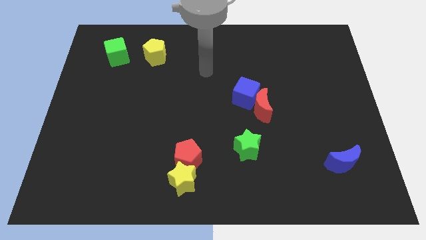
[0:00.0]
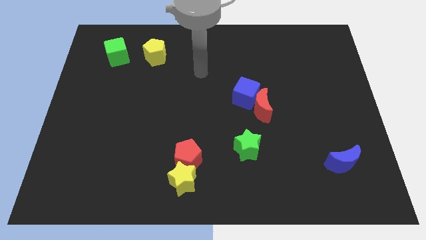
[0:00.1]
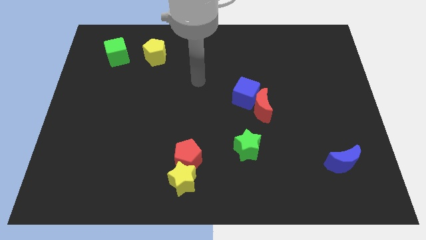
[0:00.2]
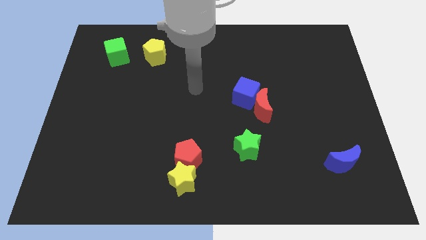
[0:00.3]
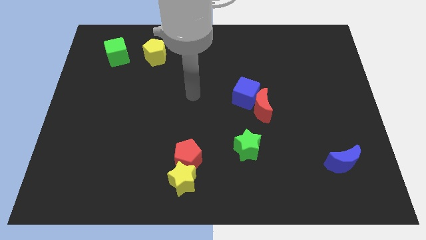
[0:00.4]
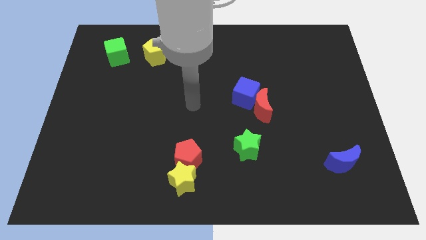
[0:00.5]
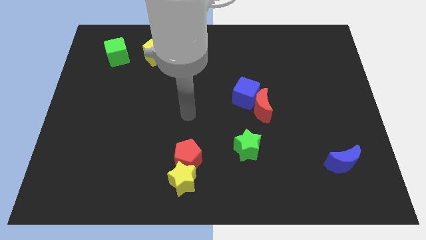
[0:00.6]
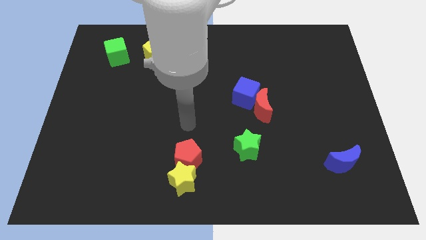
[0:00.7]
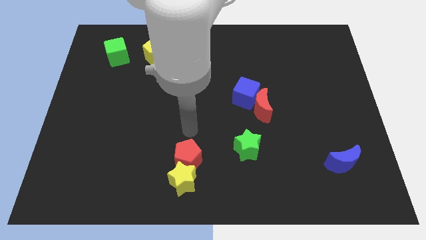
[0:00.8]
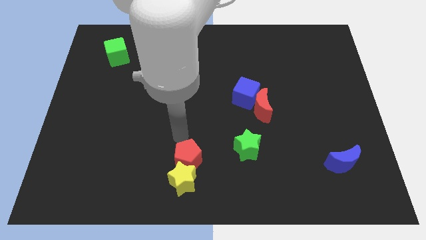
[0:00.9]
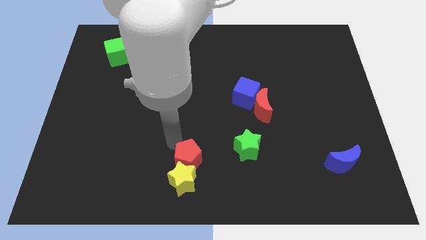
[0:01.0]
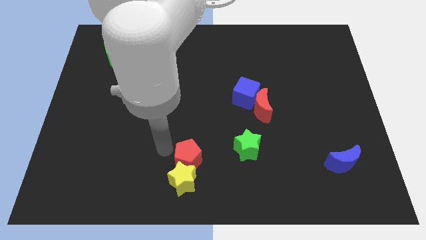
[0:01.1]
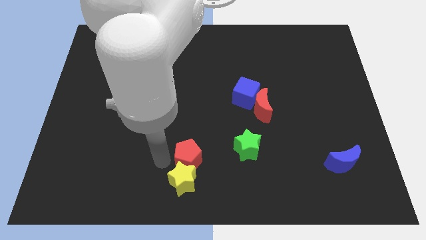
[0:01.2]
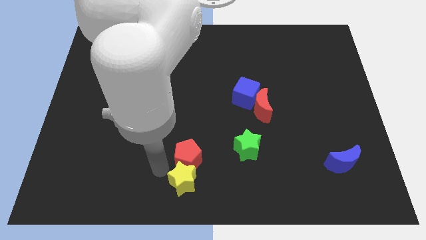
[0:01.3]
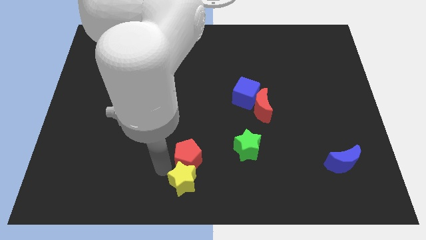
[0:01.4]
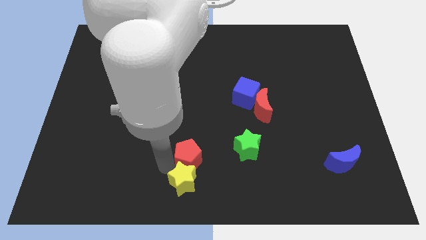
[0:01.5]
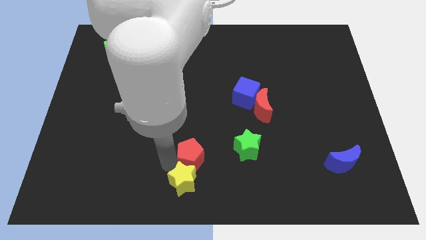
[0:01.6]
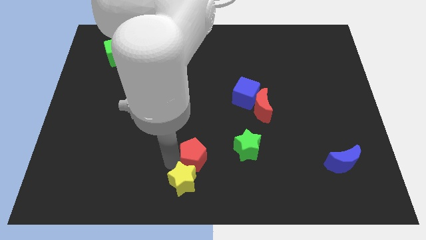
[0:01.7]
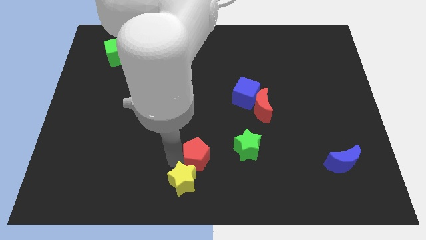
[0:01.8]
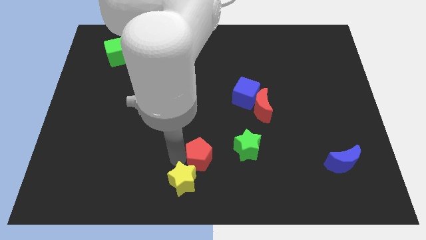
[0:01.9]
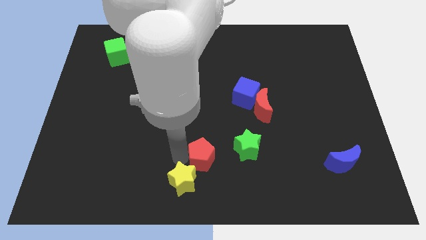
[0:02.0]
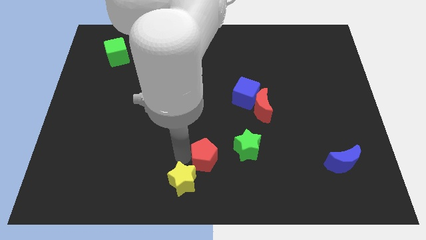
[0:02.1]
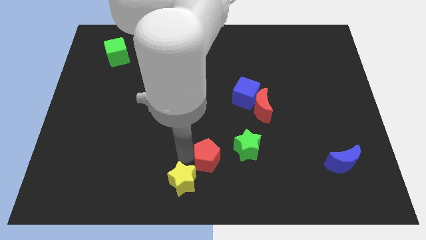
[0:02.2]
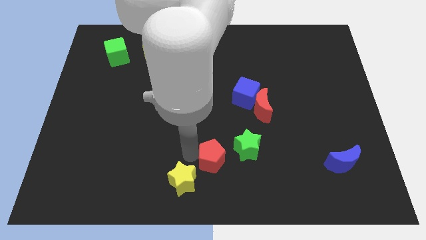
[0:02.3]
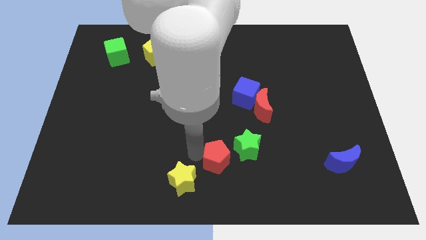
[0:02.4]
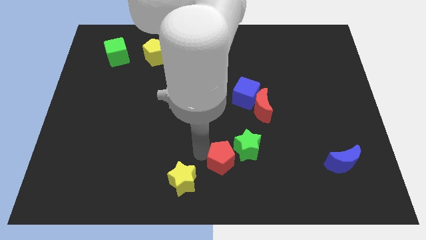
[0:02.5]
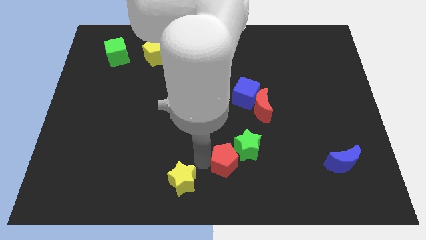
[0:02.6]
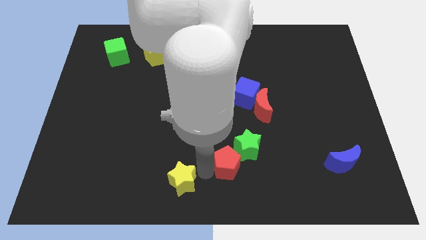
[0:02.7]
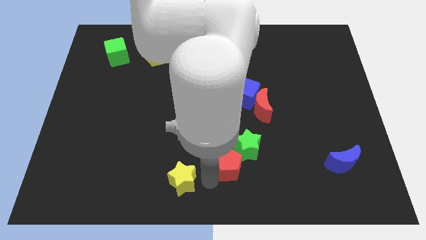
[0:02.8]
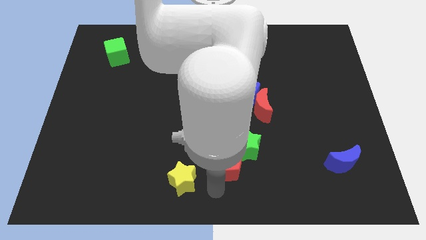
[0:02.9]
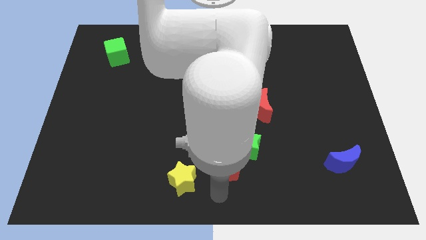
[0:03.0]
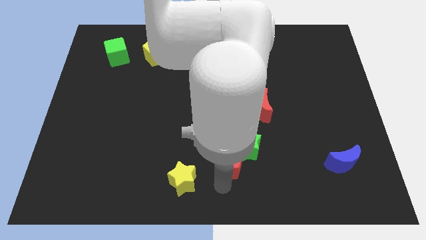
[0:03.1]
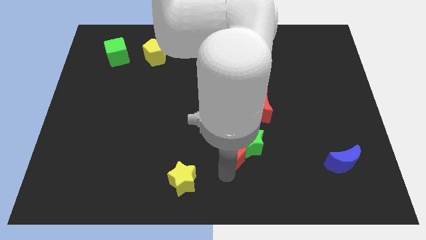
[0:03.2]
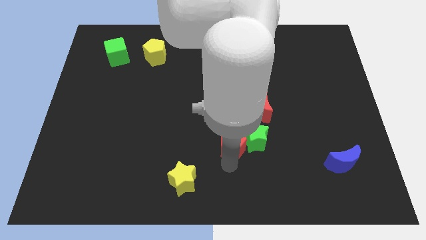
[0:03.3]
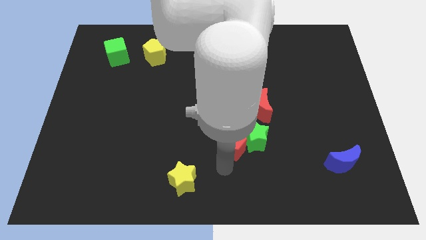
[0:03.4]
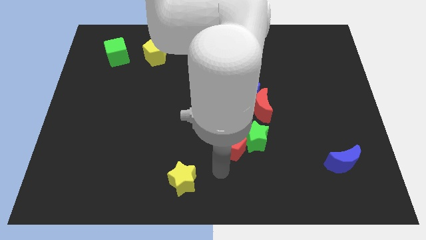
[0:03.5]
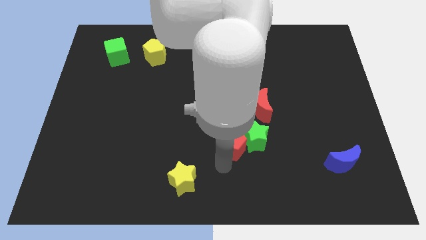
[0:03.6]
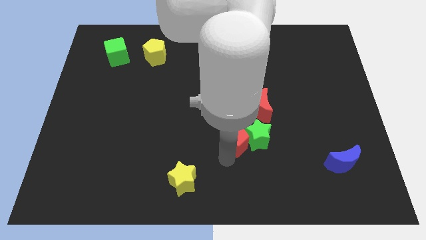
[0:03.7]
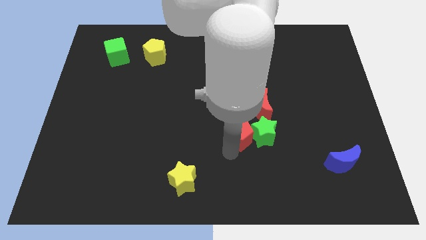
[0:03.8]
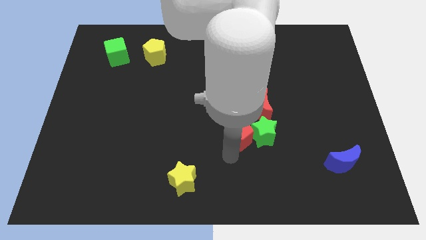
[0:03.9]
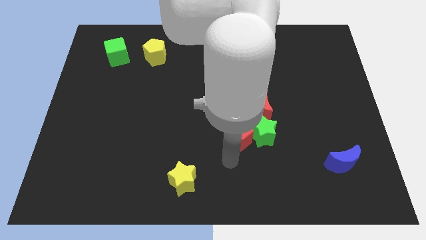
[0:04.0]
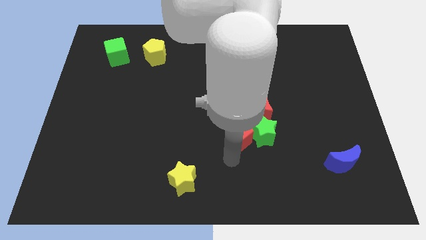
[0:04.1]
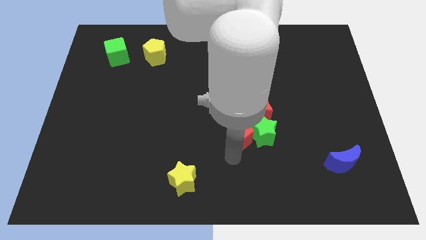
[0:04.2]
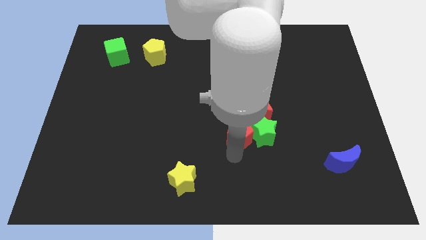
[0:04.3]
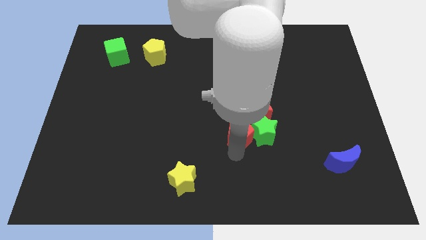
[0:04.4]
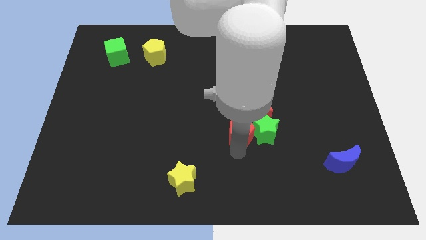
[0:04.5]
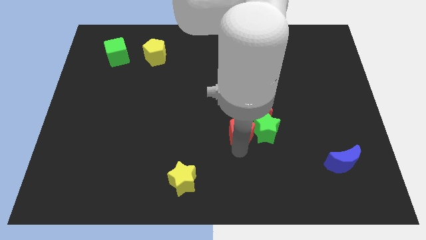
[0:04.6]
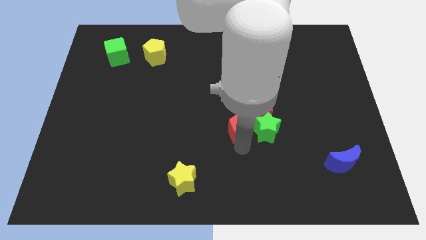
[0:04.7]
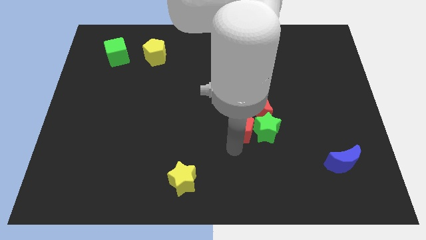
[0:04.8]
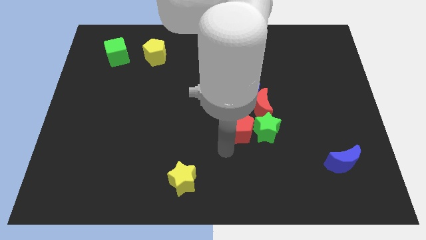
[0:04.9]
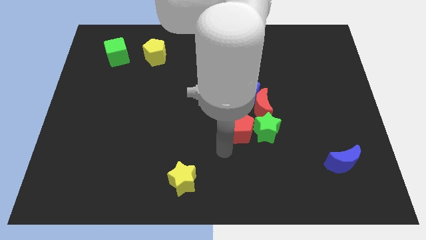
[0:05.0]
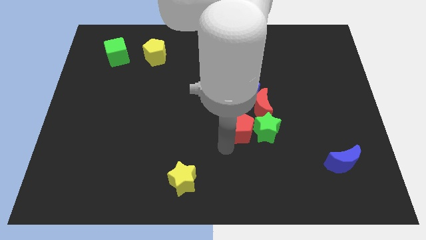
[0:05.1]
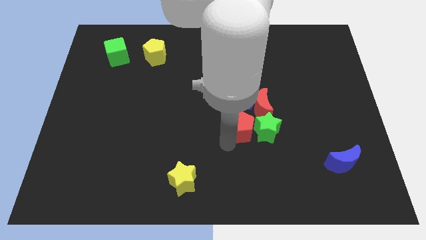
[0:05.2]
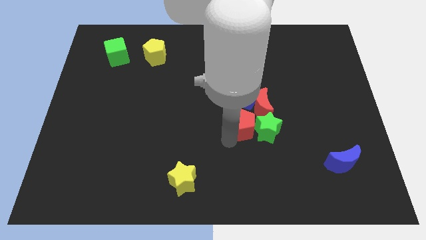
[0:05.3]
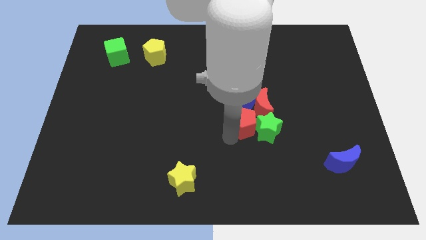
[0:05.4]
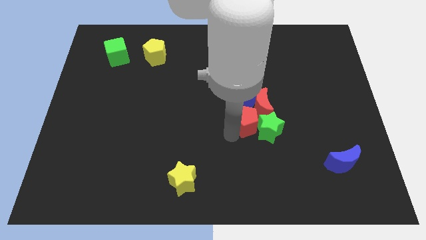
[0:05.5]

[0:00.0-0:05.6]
push the red pentagon towards the red moon

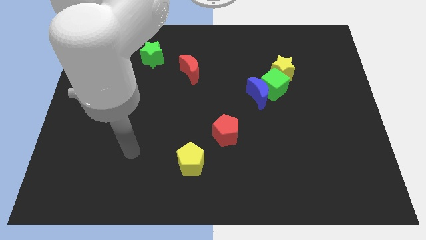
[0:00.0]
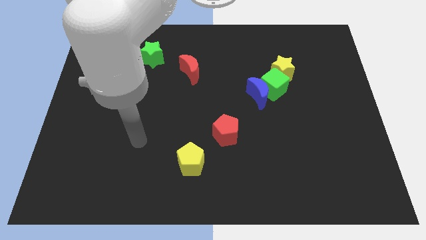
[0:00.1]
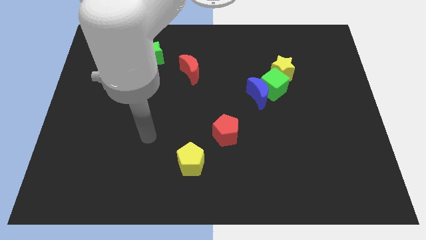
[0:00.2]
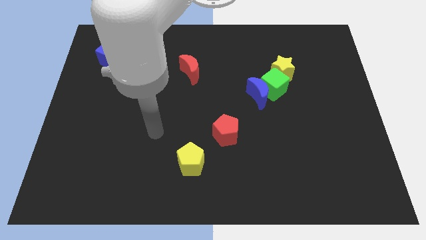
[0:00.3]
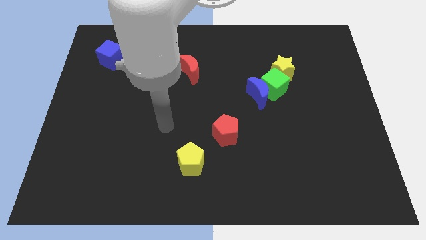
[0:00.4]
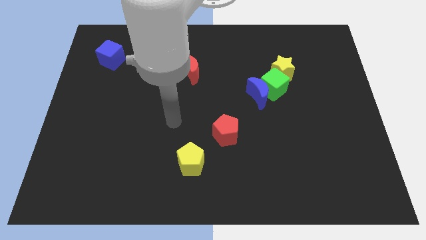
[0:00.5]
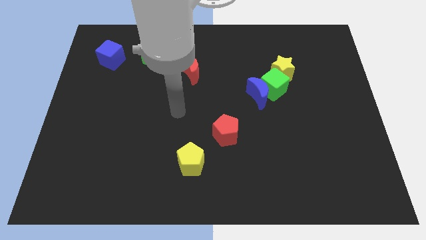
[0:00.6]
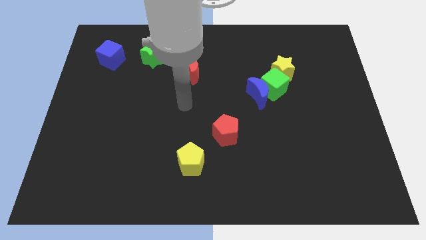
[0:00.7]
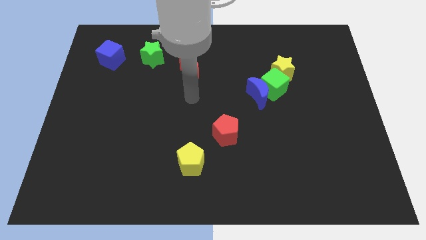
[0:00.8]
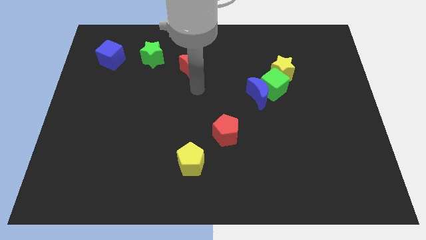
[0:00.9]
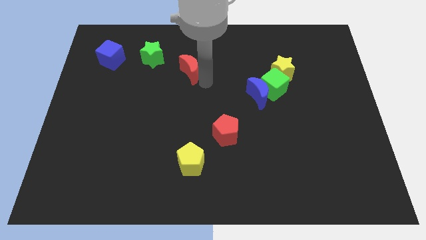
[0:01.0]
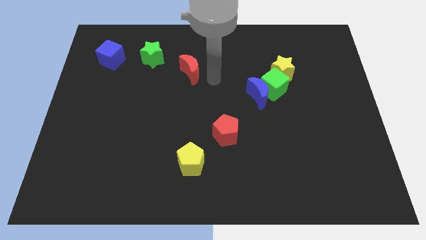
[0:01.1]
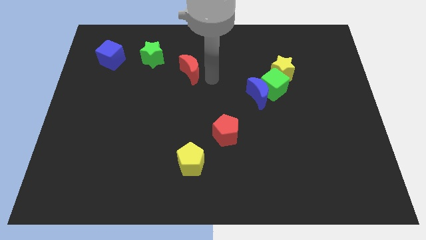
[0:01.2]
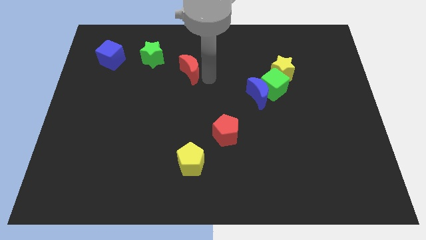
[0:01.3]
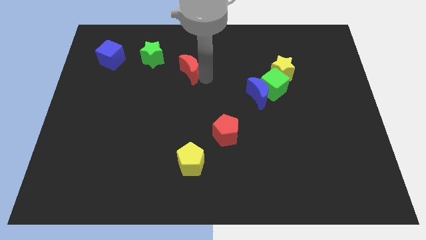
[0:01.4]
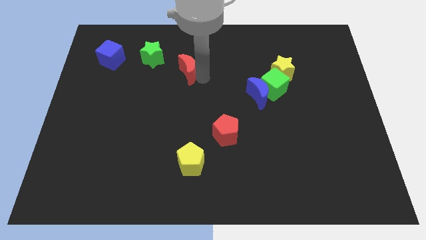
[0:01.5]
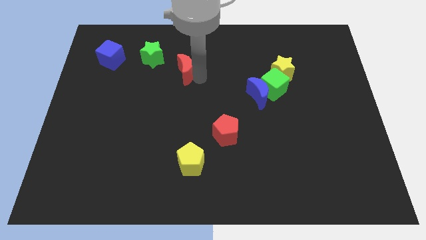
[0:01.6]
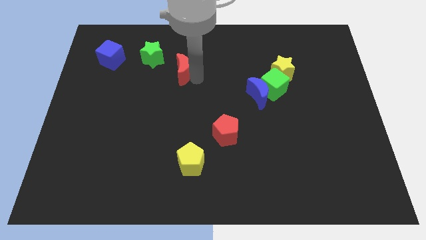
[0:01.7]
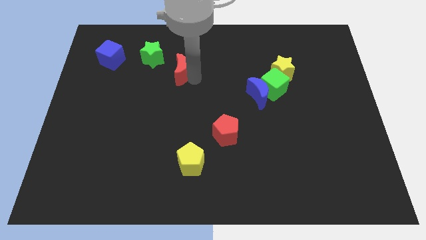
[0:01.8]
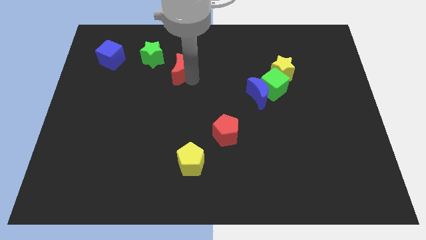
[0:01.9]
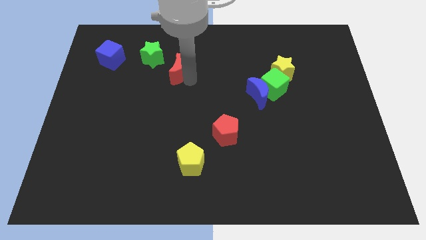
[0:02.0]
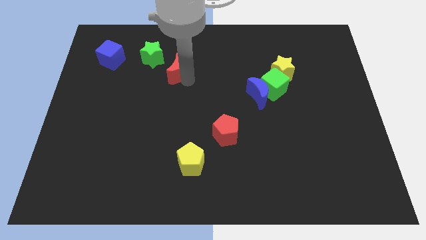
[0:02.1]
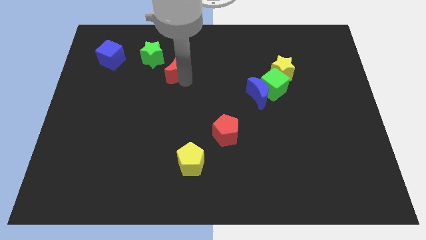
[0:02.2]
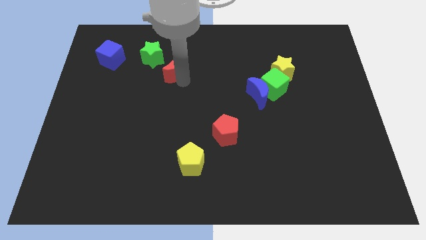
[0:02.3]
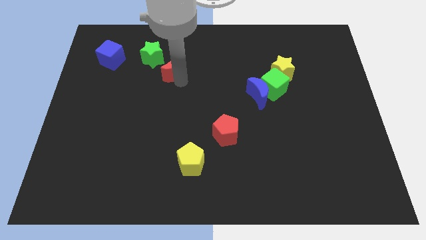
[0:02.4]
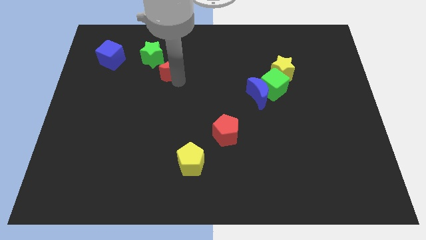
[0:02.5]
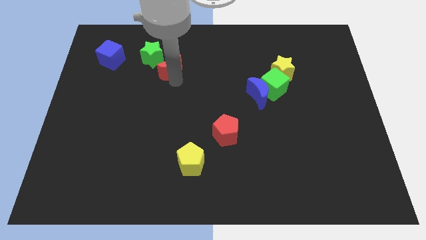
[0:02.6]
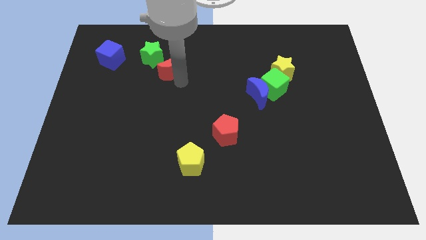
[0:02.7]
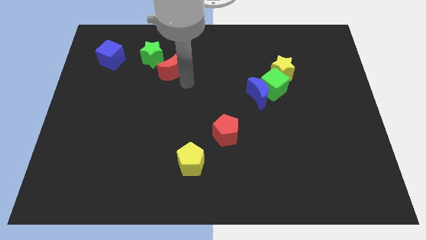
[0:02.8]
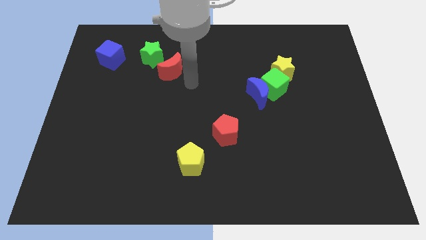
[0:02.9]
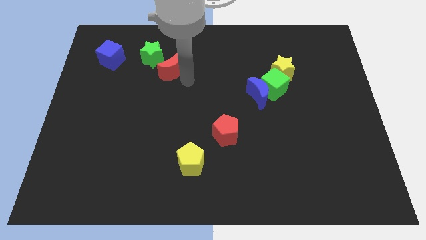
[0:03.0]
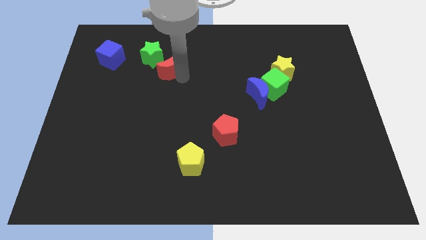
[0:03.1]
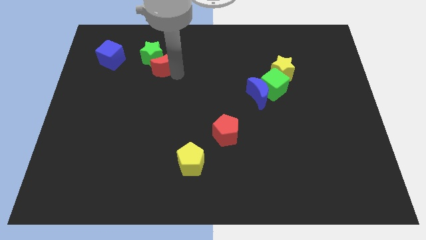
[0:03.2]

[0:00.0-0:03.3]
move the red moon close to the green star
